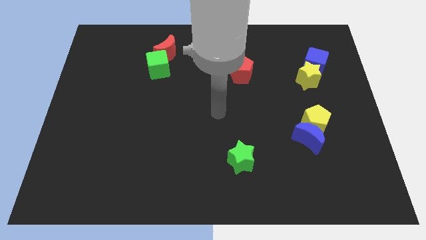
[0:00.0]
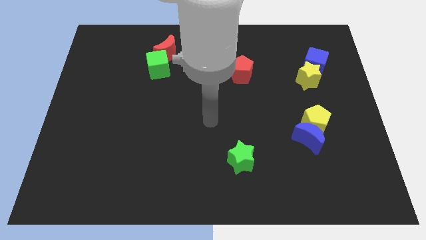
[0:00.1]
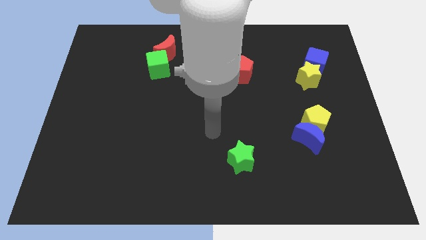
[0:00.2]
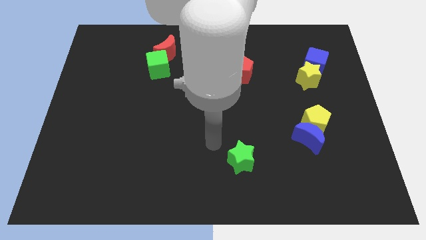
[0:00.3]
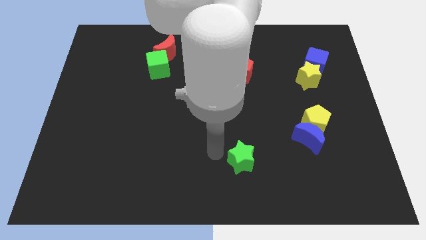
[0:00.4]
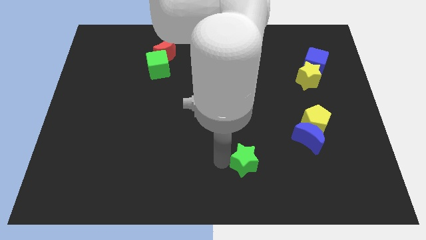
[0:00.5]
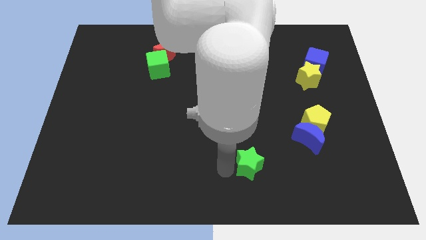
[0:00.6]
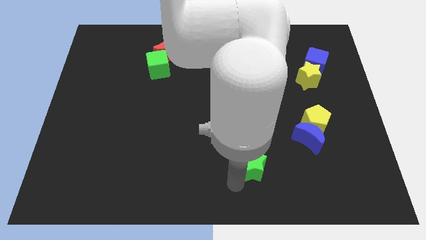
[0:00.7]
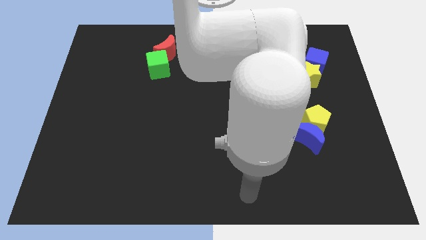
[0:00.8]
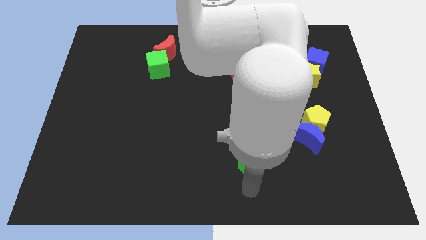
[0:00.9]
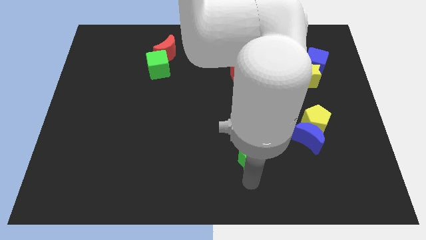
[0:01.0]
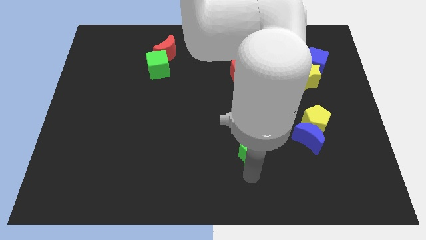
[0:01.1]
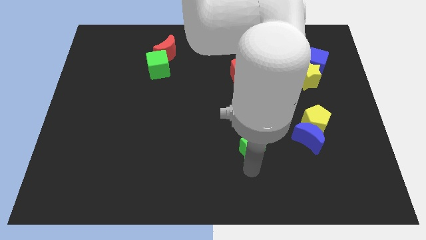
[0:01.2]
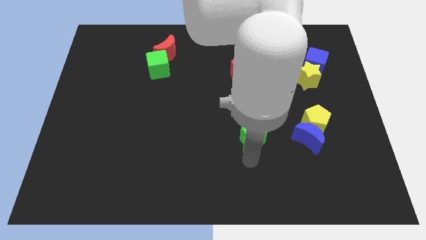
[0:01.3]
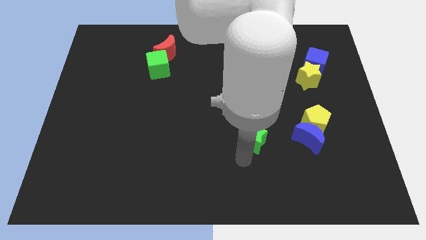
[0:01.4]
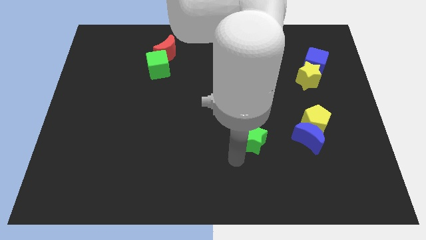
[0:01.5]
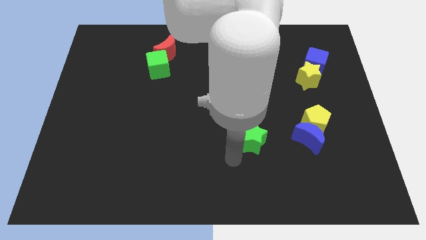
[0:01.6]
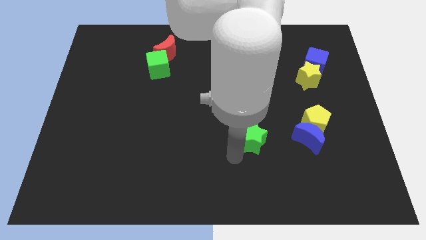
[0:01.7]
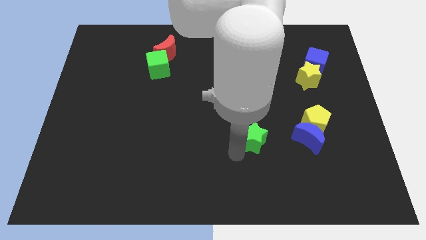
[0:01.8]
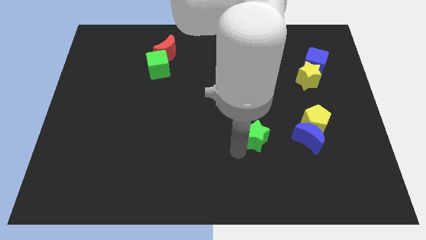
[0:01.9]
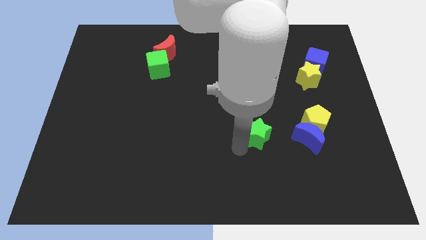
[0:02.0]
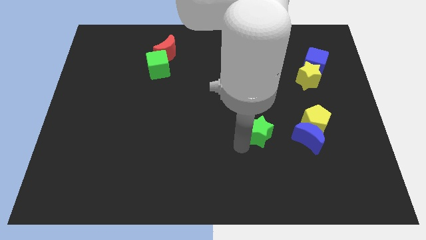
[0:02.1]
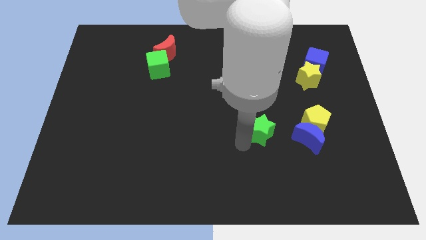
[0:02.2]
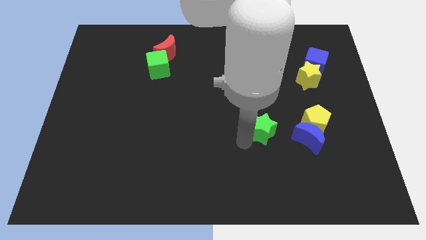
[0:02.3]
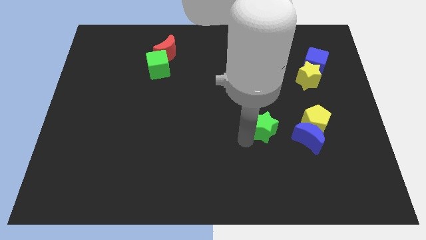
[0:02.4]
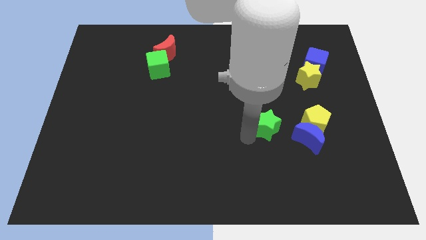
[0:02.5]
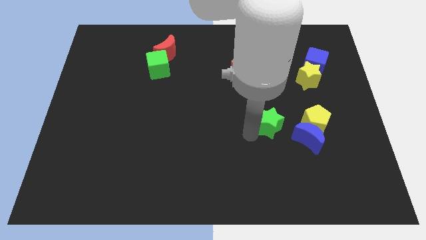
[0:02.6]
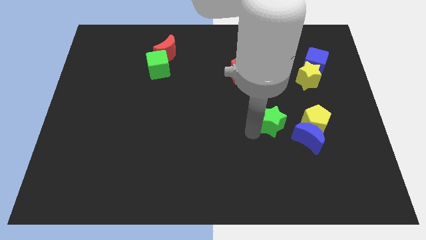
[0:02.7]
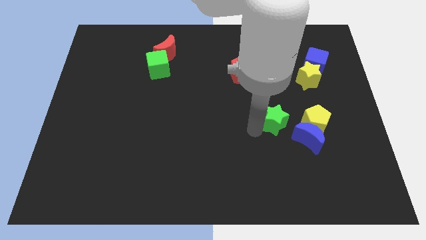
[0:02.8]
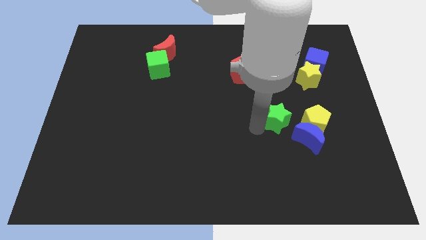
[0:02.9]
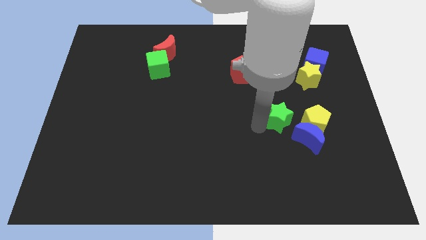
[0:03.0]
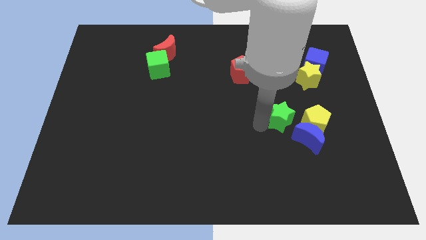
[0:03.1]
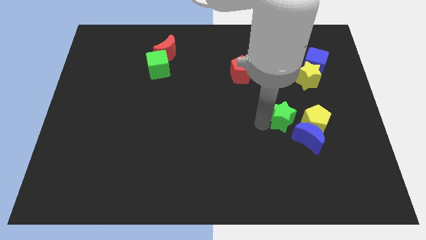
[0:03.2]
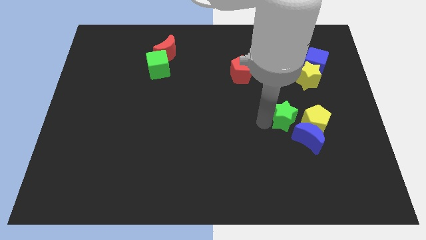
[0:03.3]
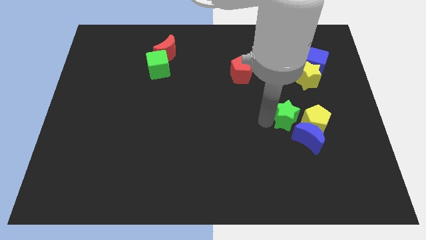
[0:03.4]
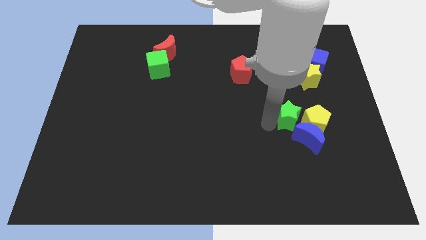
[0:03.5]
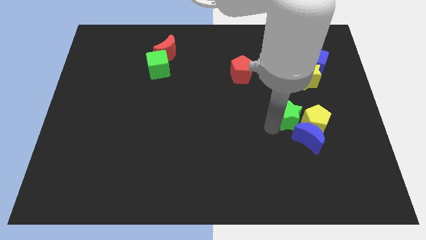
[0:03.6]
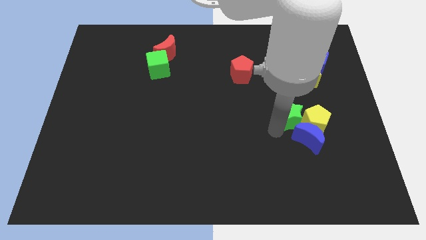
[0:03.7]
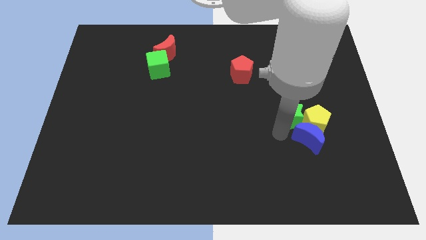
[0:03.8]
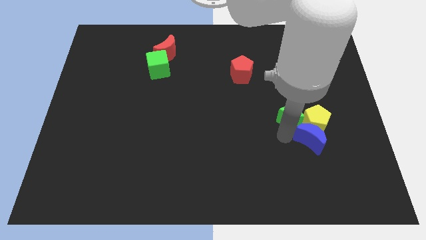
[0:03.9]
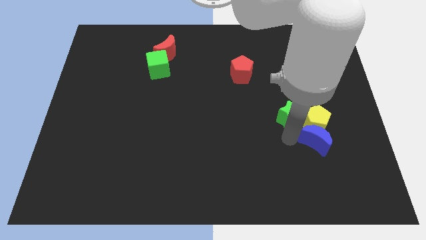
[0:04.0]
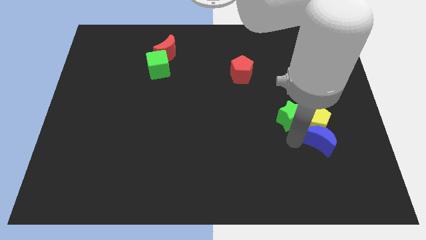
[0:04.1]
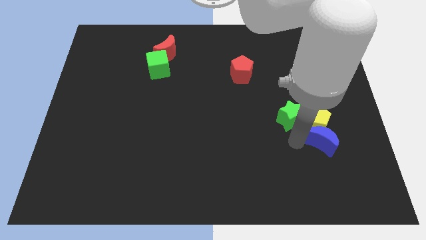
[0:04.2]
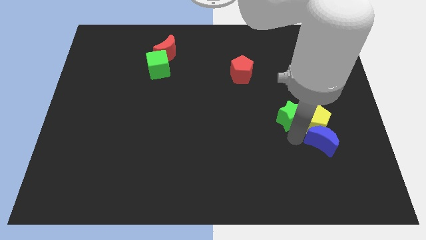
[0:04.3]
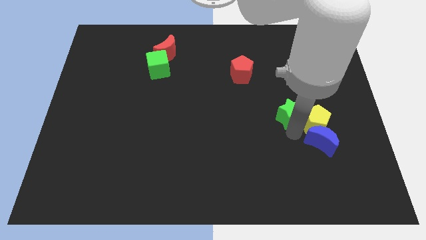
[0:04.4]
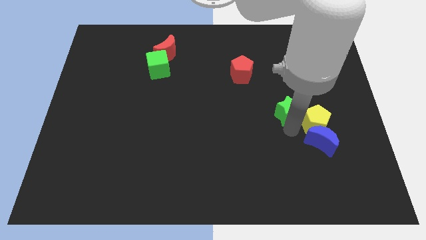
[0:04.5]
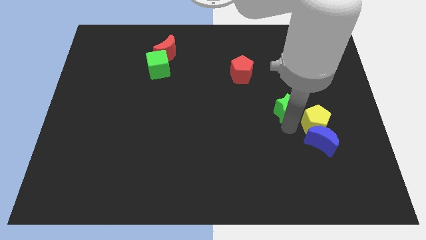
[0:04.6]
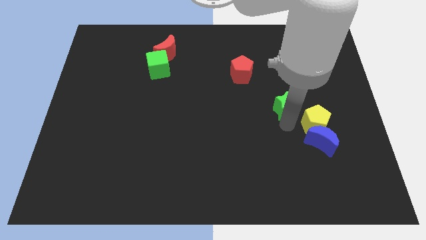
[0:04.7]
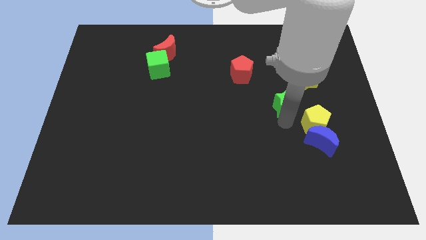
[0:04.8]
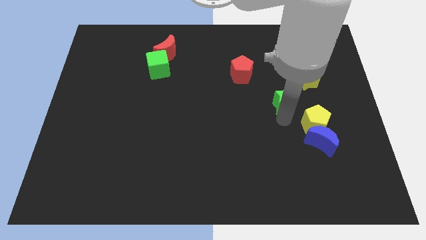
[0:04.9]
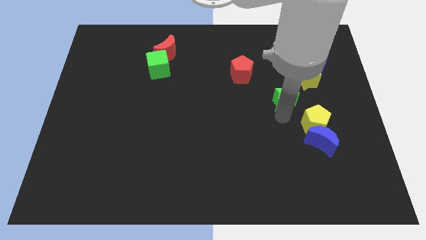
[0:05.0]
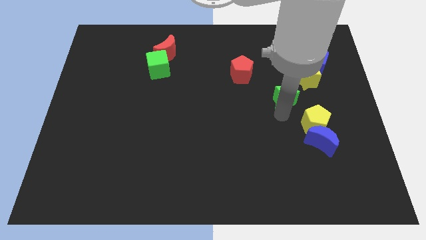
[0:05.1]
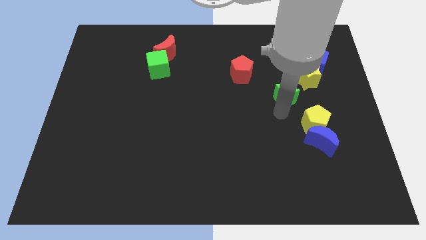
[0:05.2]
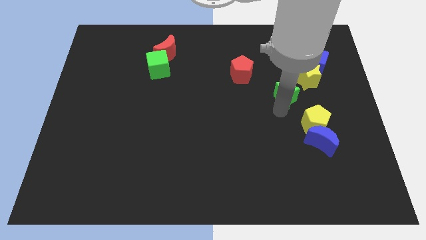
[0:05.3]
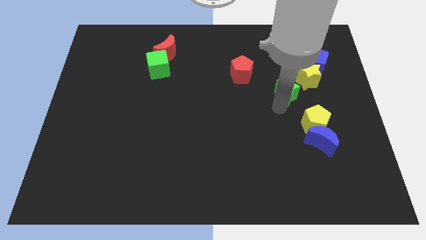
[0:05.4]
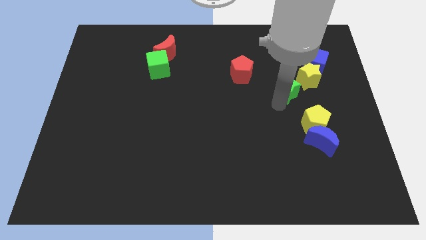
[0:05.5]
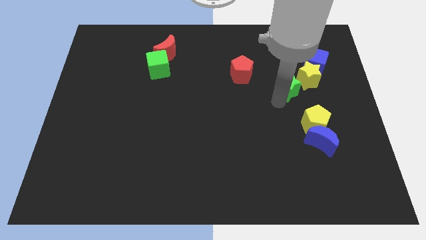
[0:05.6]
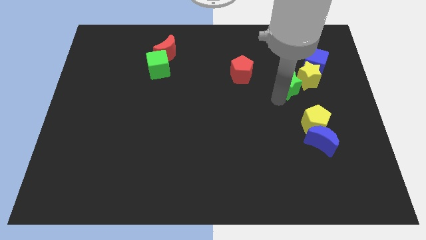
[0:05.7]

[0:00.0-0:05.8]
put the green star towards the yellow star

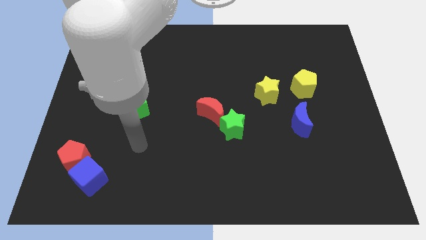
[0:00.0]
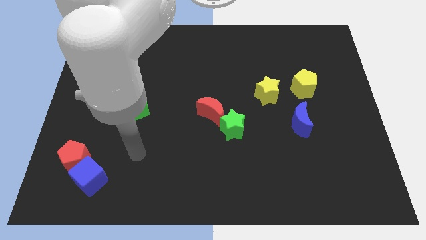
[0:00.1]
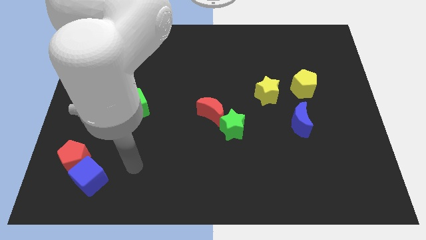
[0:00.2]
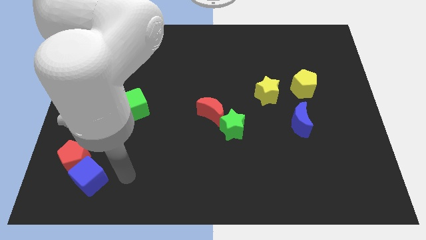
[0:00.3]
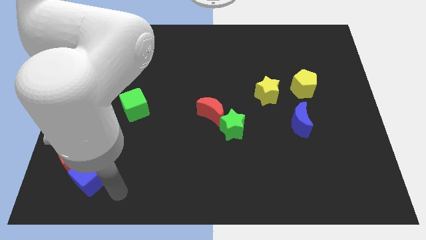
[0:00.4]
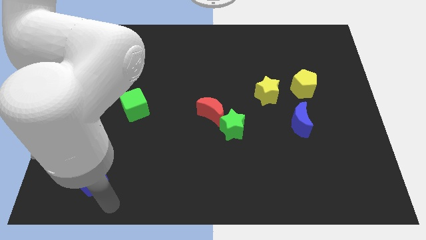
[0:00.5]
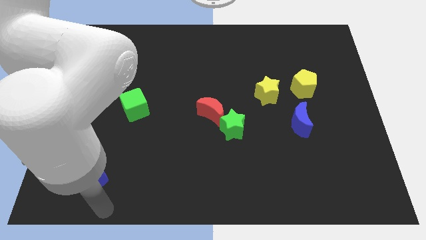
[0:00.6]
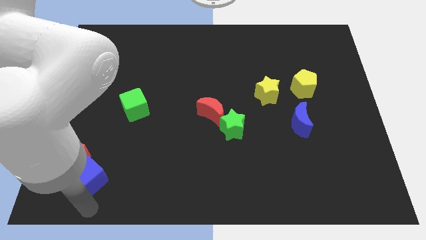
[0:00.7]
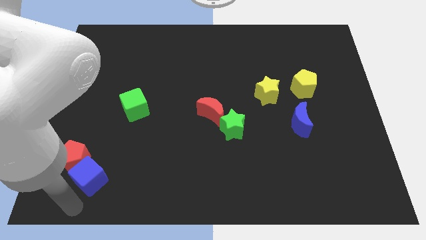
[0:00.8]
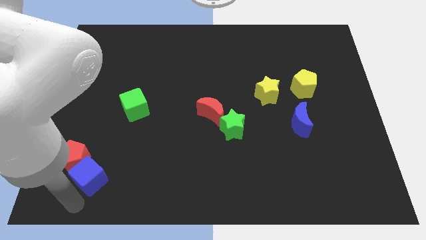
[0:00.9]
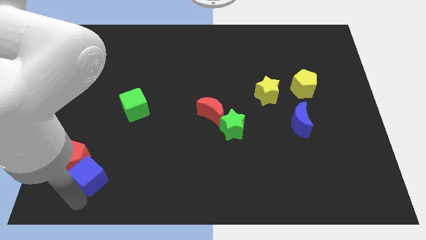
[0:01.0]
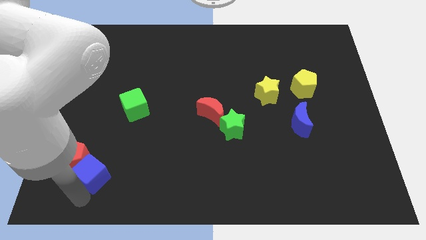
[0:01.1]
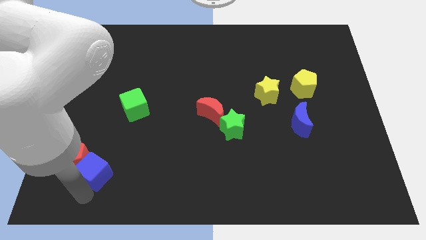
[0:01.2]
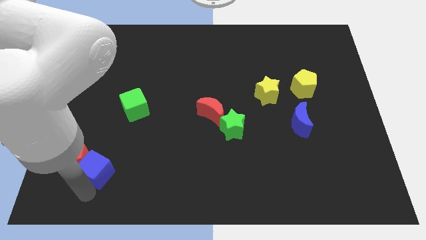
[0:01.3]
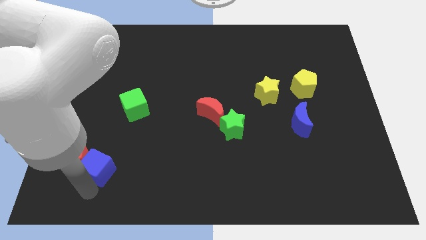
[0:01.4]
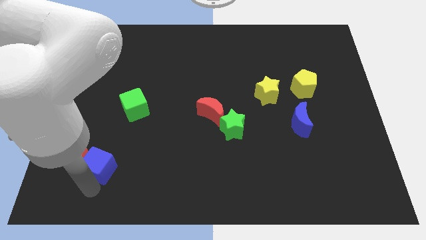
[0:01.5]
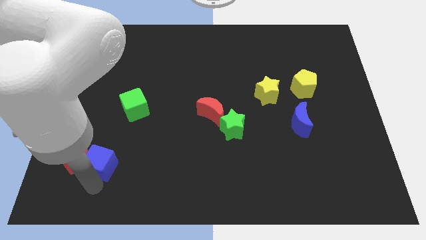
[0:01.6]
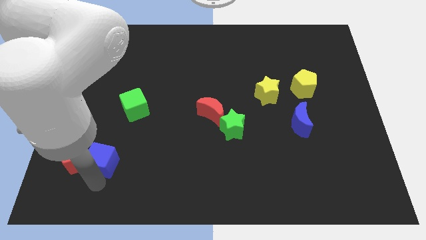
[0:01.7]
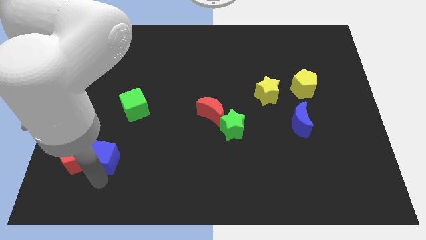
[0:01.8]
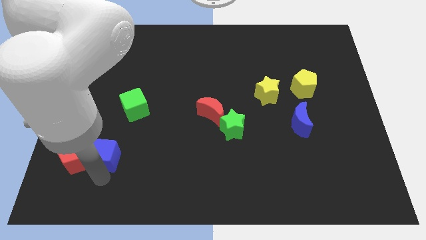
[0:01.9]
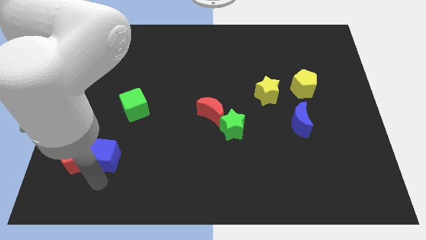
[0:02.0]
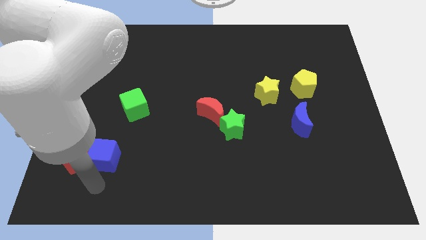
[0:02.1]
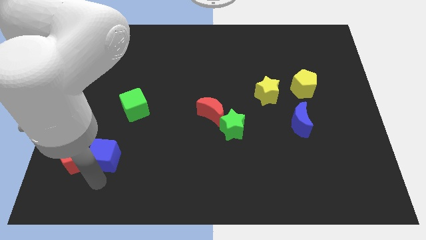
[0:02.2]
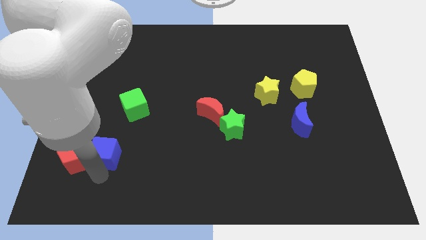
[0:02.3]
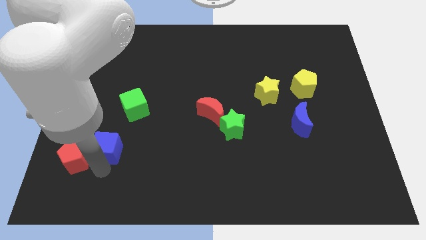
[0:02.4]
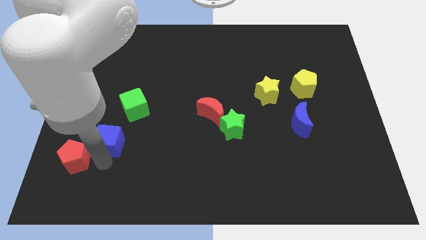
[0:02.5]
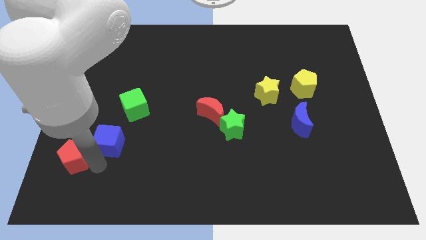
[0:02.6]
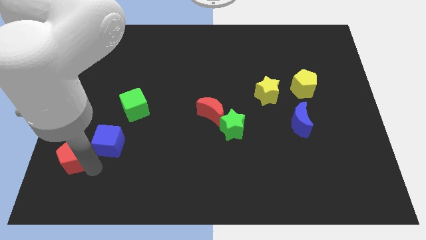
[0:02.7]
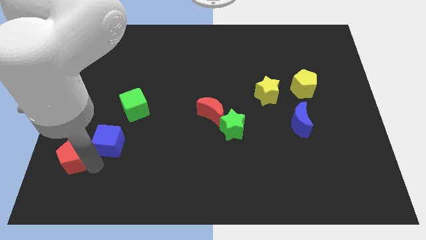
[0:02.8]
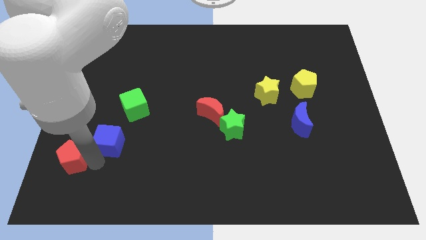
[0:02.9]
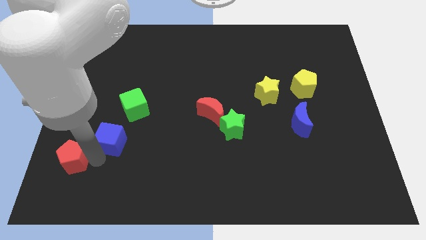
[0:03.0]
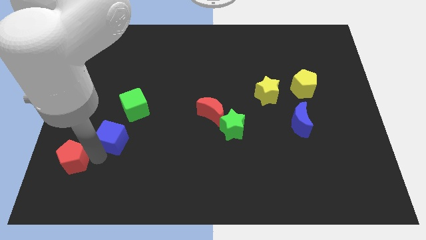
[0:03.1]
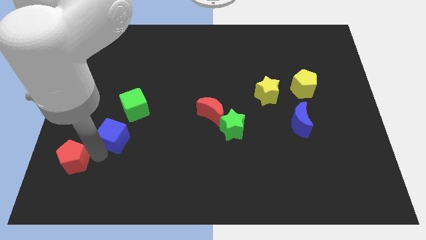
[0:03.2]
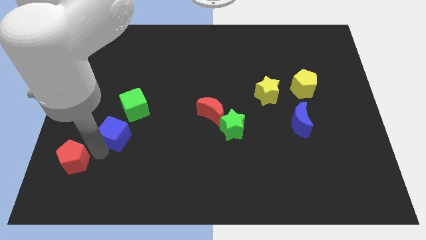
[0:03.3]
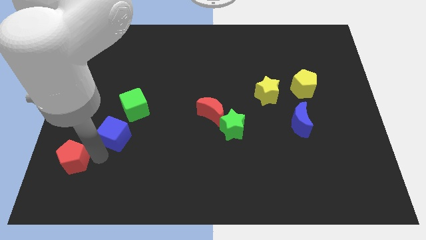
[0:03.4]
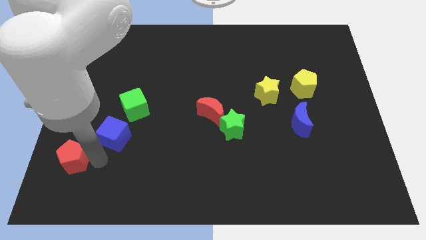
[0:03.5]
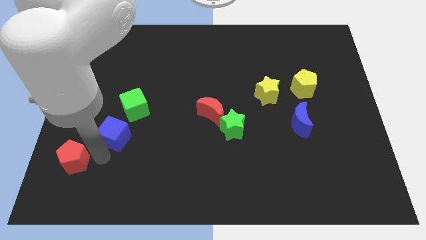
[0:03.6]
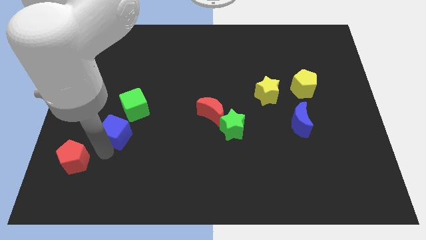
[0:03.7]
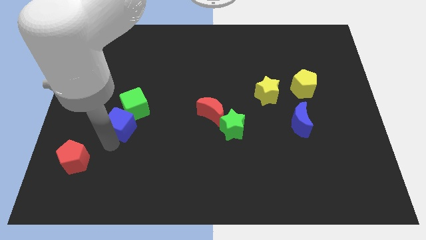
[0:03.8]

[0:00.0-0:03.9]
move the blue cube next to the green cube
